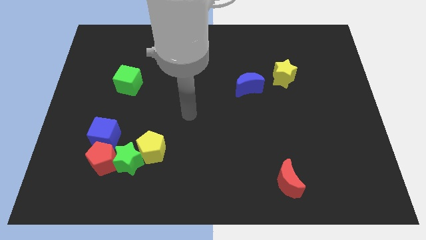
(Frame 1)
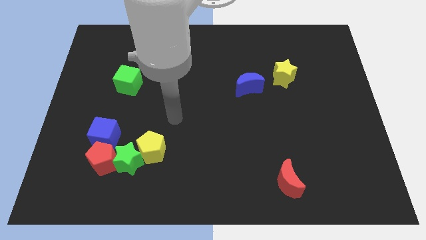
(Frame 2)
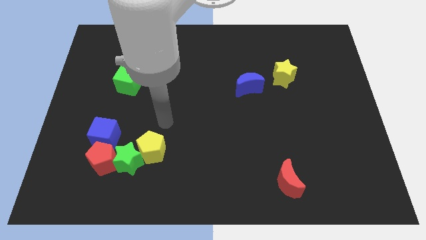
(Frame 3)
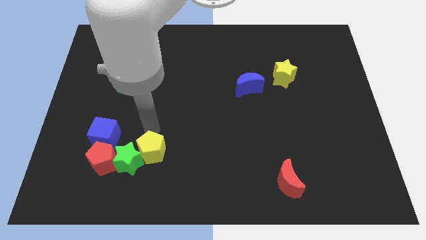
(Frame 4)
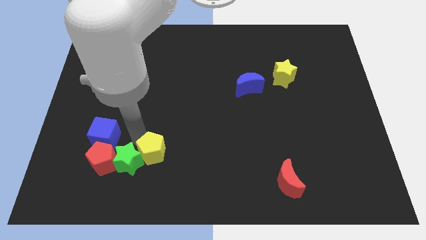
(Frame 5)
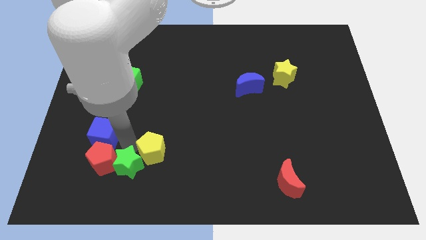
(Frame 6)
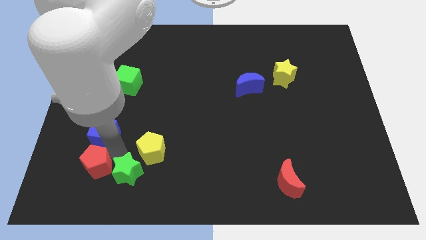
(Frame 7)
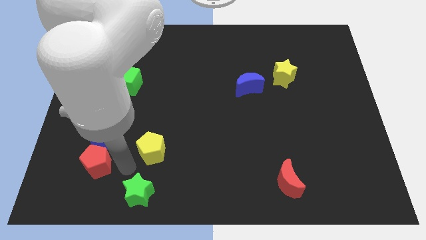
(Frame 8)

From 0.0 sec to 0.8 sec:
pull the yellow pentagon apart from the green star

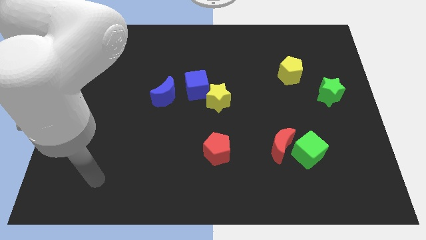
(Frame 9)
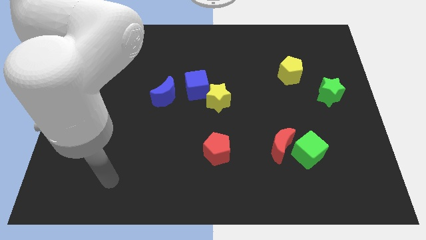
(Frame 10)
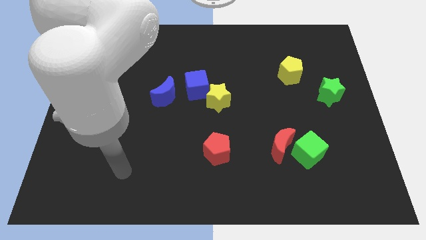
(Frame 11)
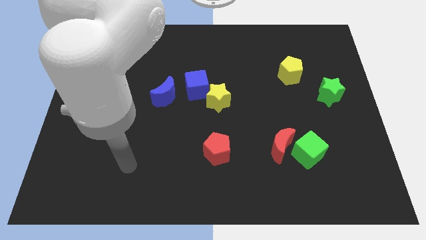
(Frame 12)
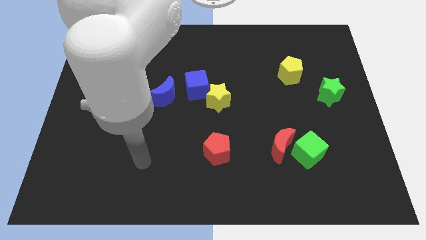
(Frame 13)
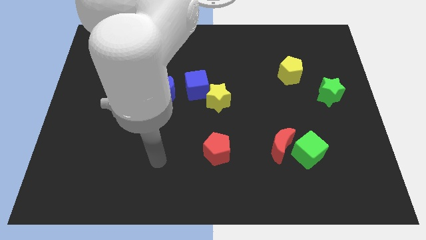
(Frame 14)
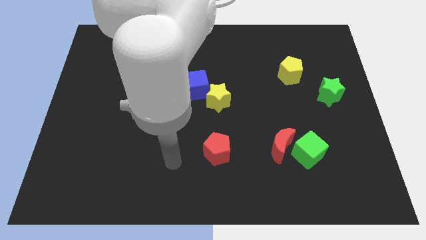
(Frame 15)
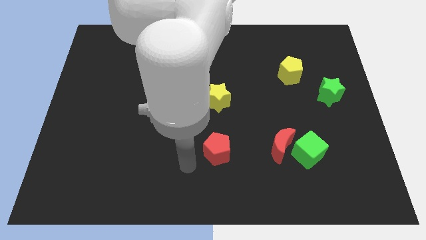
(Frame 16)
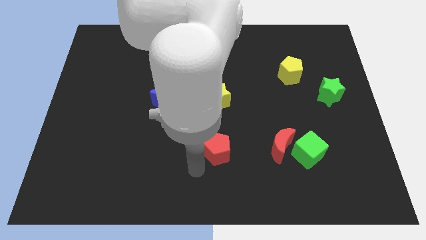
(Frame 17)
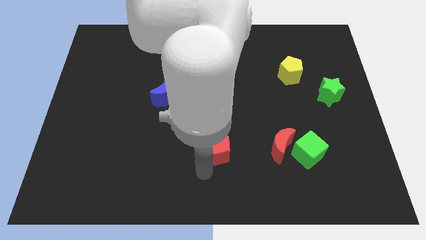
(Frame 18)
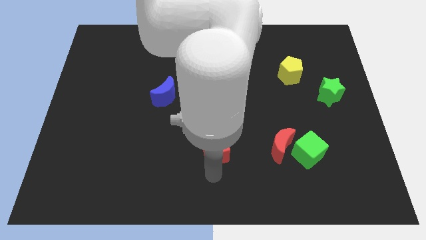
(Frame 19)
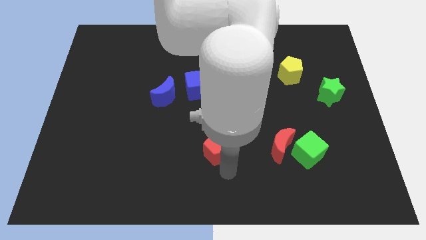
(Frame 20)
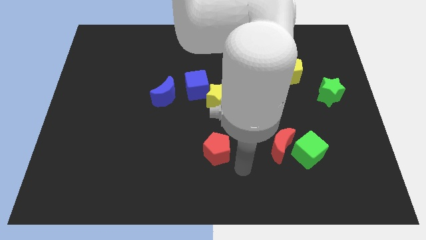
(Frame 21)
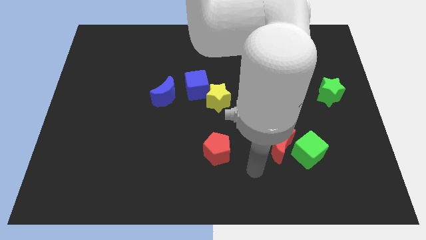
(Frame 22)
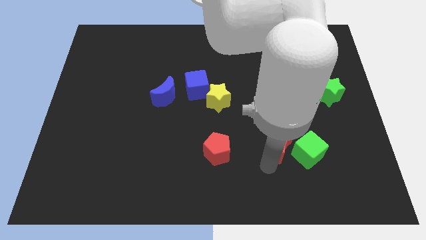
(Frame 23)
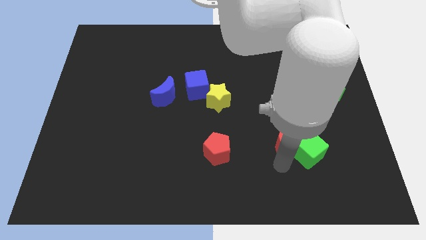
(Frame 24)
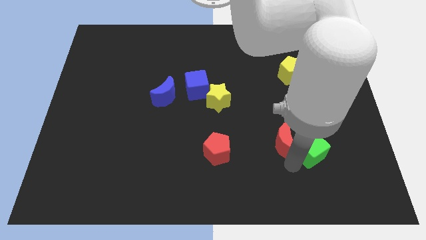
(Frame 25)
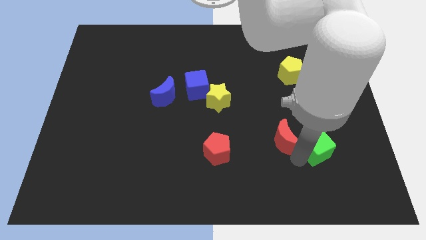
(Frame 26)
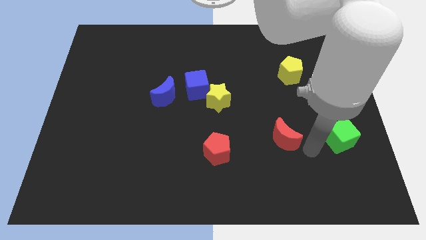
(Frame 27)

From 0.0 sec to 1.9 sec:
separate the red moon from the green cube

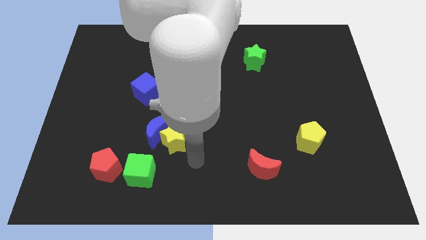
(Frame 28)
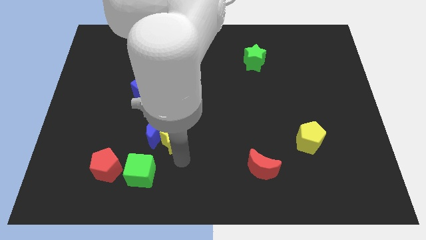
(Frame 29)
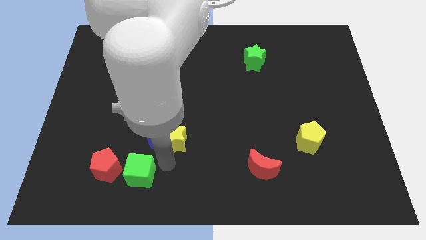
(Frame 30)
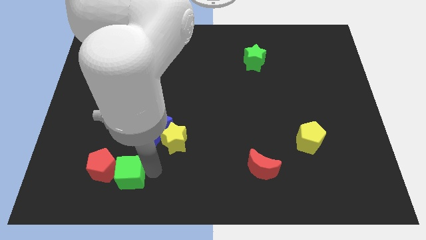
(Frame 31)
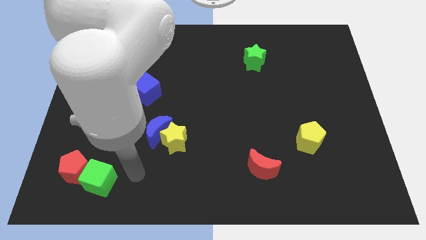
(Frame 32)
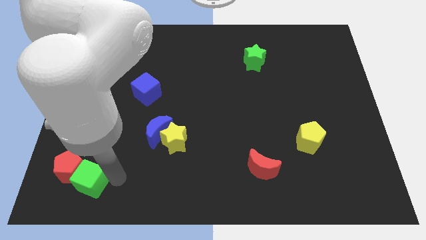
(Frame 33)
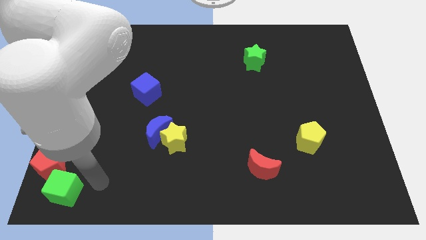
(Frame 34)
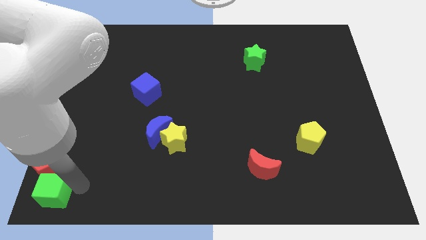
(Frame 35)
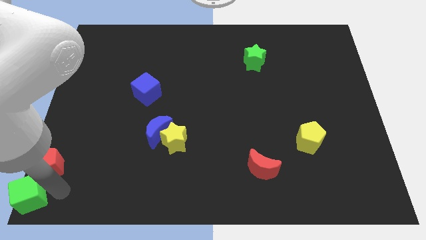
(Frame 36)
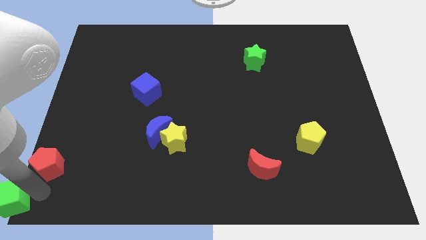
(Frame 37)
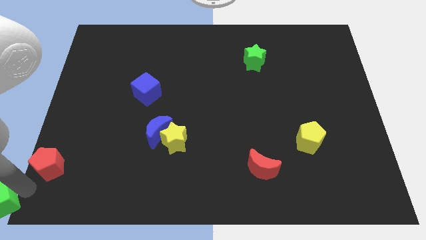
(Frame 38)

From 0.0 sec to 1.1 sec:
move the red pentagon away from the green cube

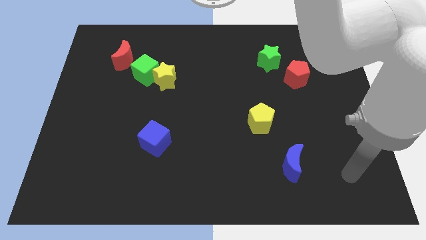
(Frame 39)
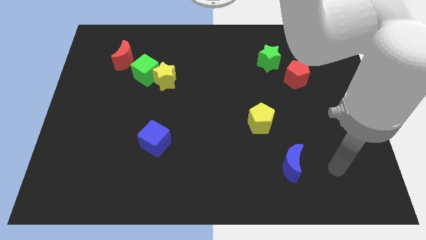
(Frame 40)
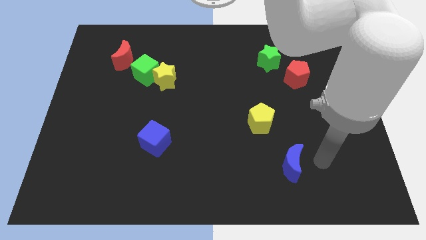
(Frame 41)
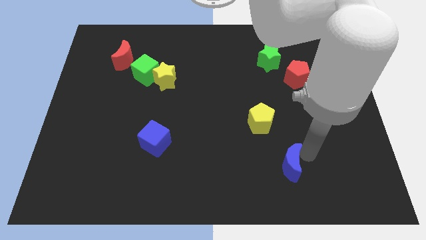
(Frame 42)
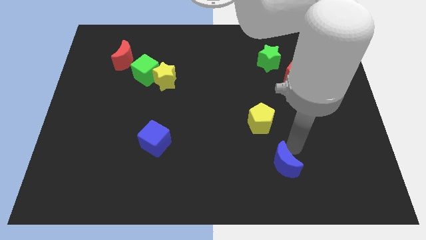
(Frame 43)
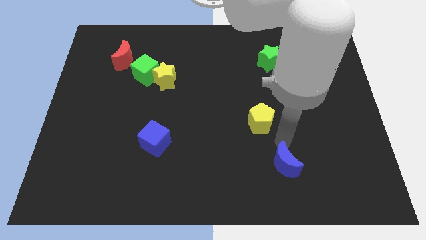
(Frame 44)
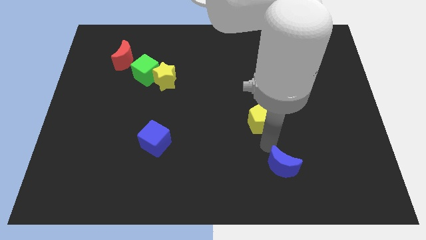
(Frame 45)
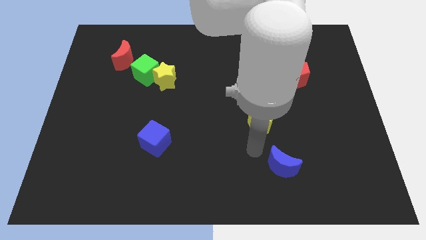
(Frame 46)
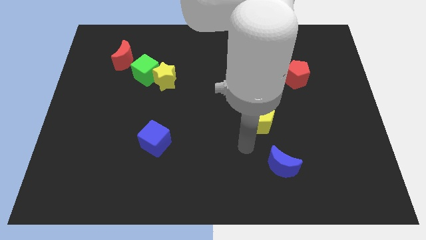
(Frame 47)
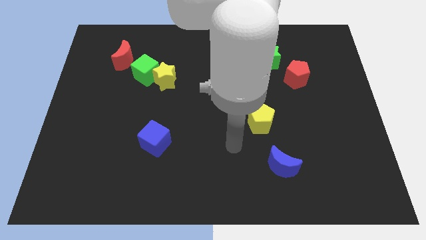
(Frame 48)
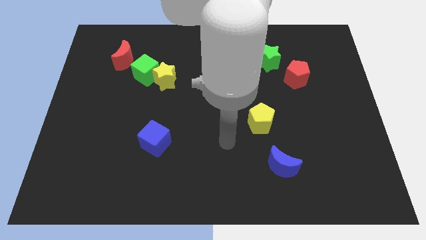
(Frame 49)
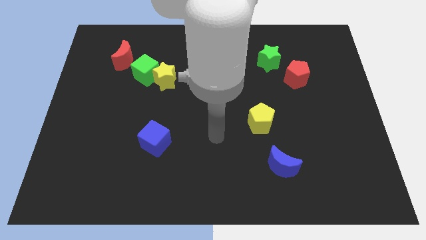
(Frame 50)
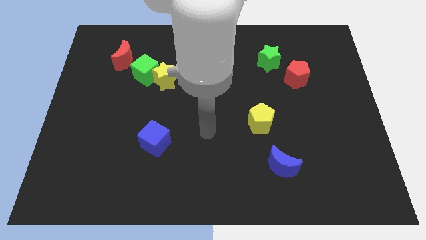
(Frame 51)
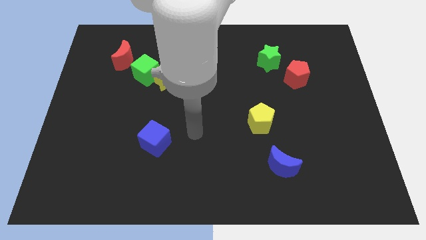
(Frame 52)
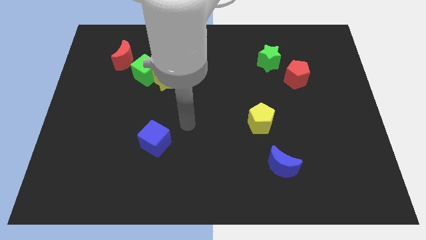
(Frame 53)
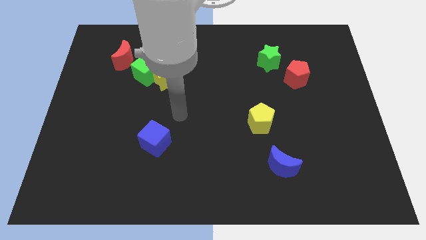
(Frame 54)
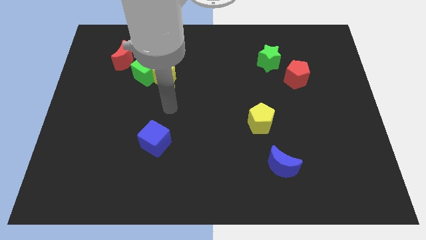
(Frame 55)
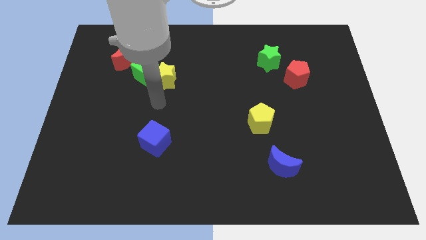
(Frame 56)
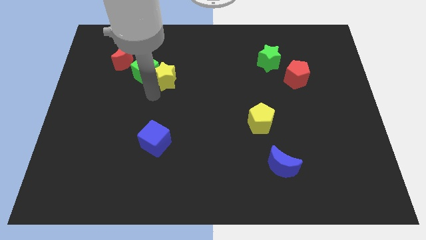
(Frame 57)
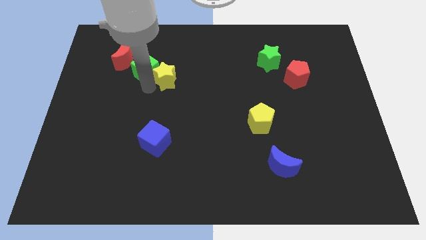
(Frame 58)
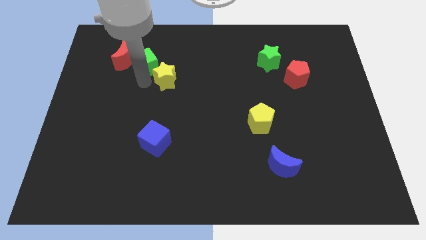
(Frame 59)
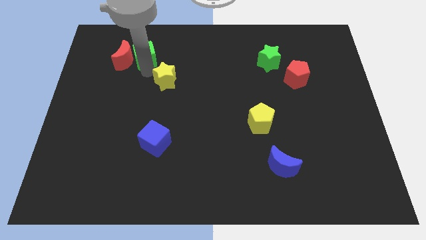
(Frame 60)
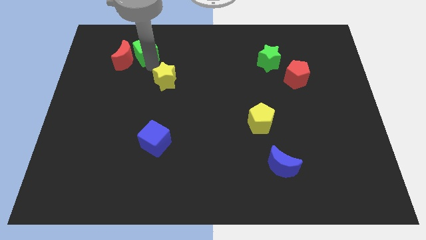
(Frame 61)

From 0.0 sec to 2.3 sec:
separate the yellow star from the green cube

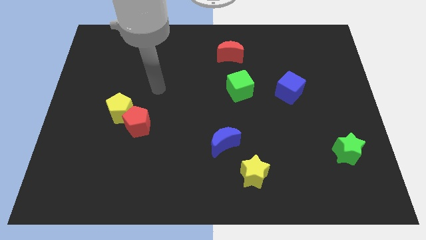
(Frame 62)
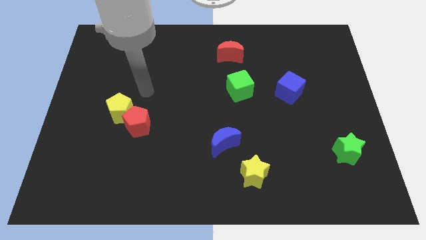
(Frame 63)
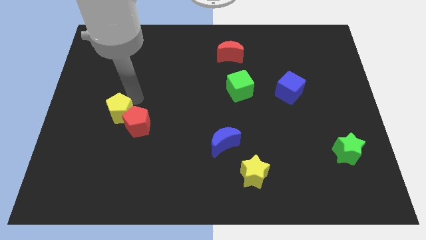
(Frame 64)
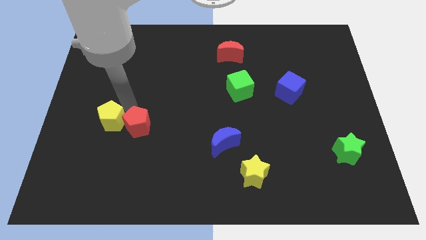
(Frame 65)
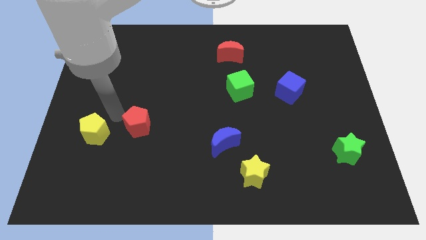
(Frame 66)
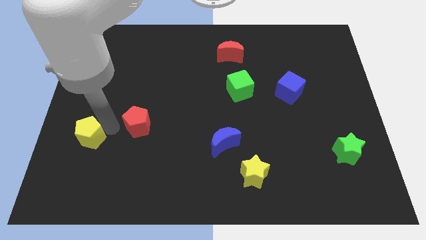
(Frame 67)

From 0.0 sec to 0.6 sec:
move the red pentagon away from the yellow pentagon

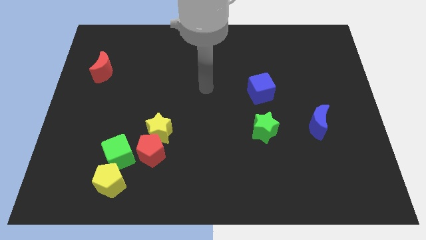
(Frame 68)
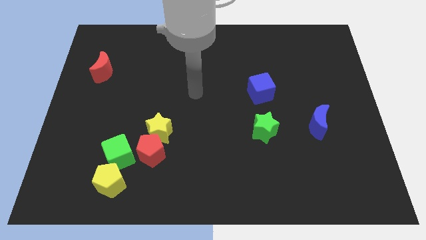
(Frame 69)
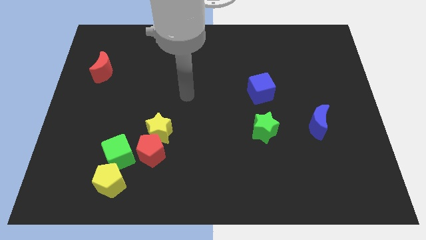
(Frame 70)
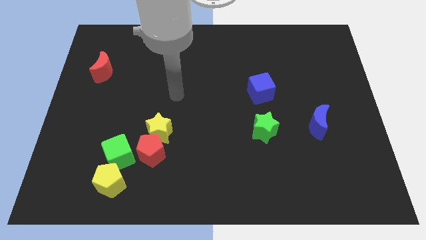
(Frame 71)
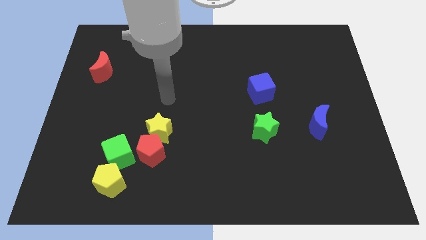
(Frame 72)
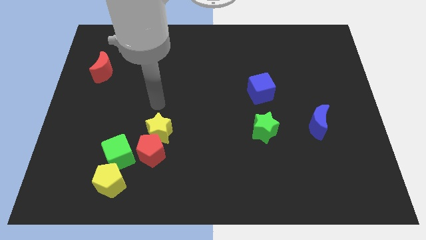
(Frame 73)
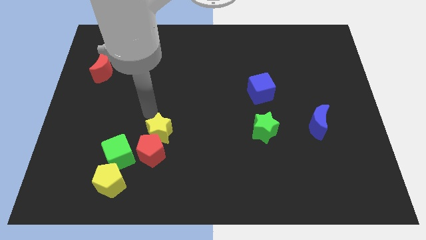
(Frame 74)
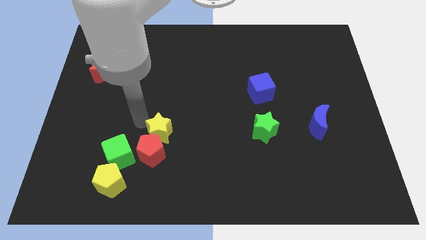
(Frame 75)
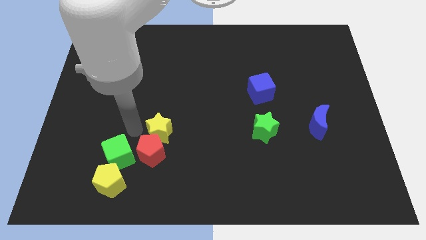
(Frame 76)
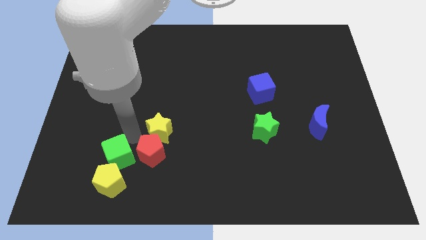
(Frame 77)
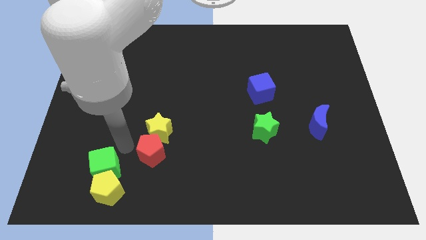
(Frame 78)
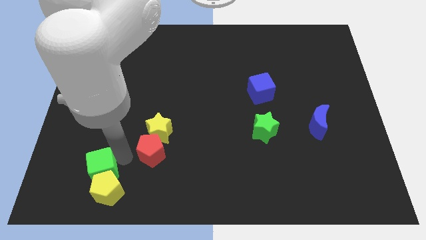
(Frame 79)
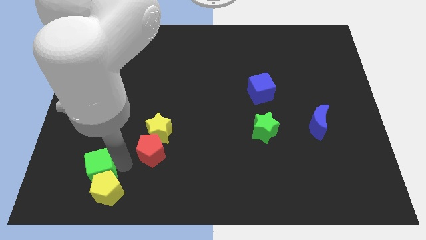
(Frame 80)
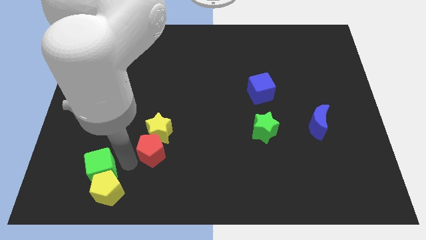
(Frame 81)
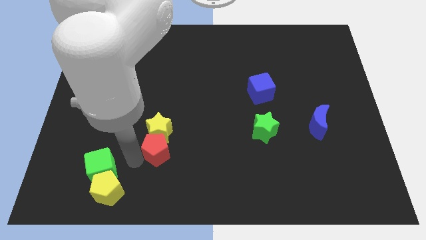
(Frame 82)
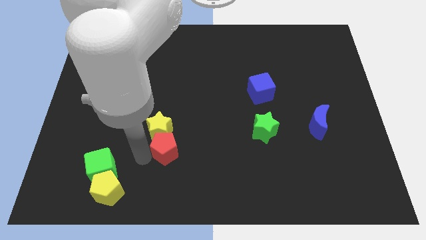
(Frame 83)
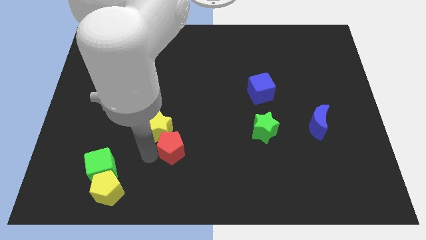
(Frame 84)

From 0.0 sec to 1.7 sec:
move the red pentagon away from the clump

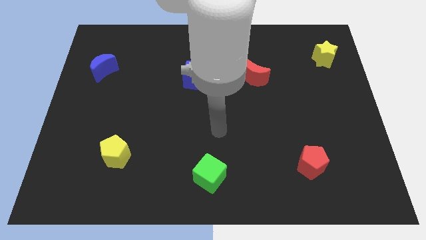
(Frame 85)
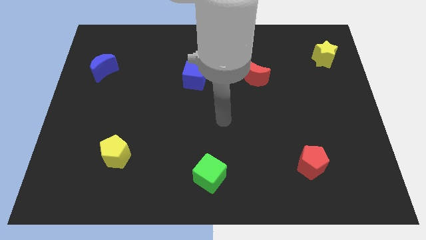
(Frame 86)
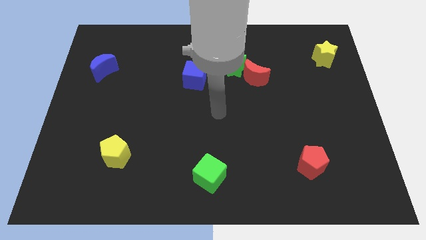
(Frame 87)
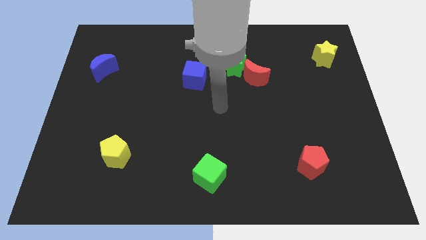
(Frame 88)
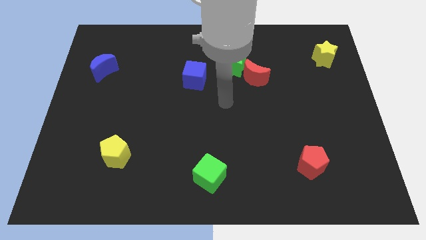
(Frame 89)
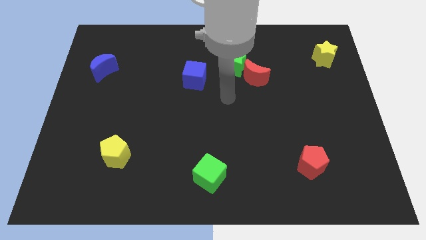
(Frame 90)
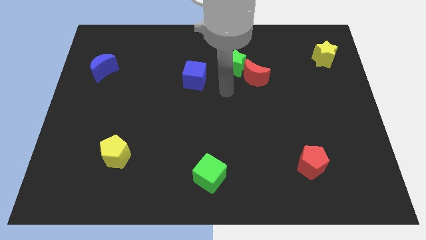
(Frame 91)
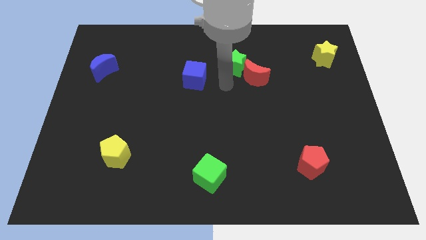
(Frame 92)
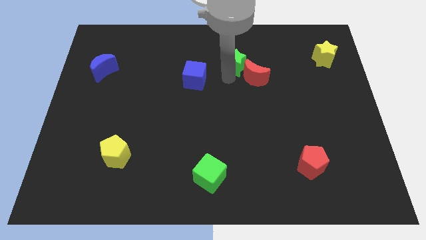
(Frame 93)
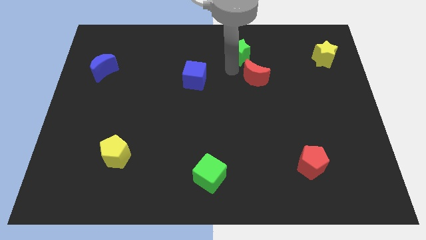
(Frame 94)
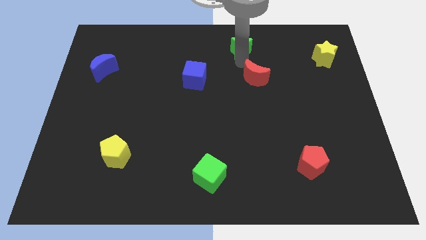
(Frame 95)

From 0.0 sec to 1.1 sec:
pull the red moon apart from the green star
